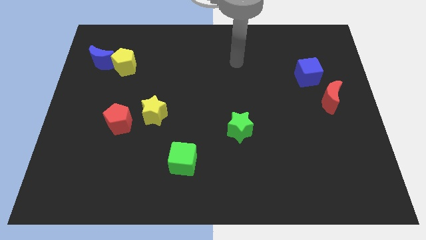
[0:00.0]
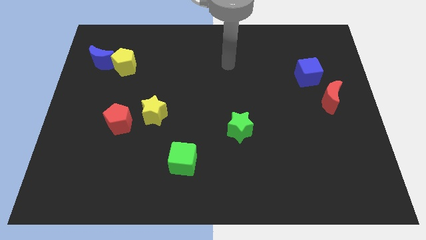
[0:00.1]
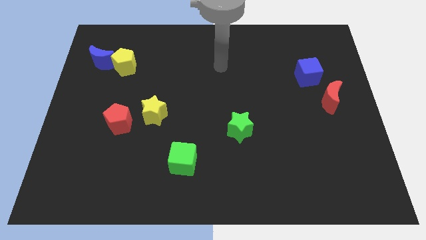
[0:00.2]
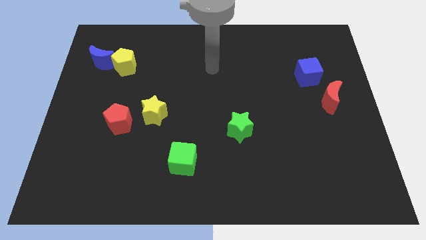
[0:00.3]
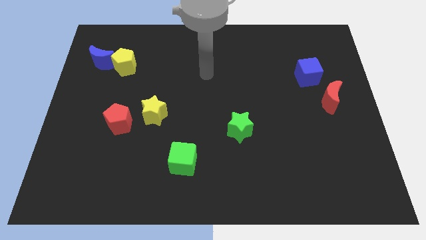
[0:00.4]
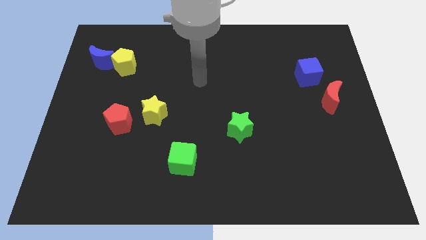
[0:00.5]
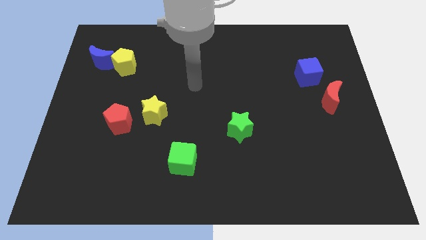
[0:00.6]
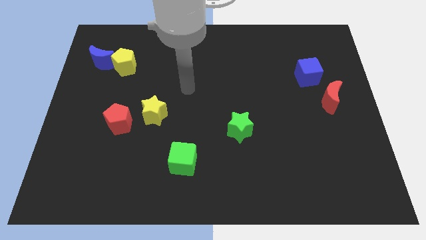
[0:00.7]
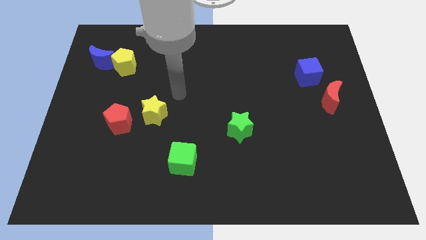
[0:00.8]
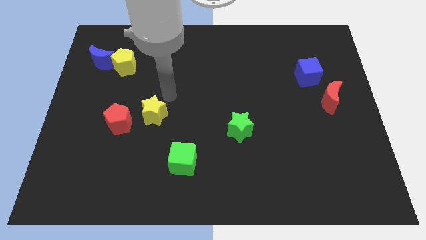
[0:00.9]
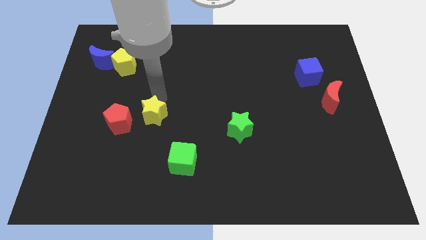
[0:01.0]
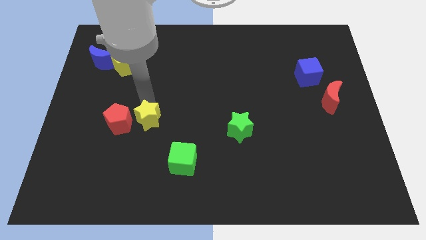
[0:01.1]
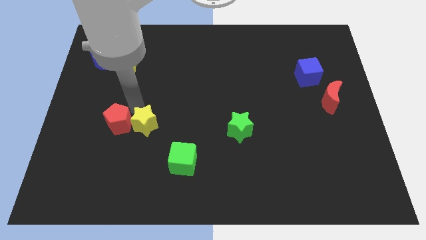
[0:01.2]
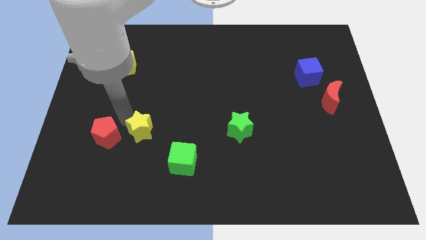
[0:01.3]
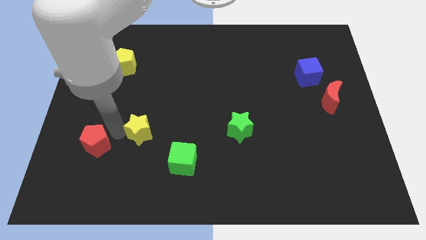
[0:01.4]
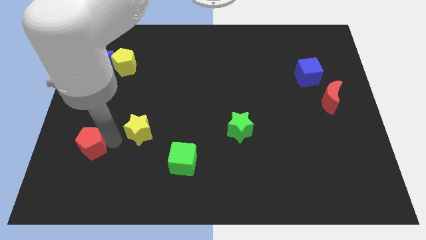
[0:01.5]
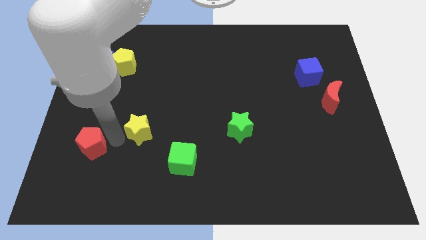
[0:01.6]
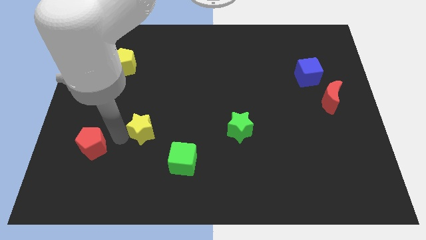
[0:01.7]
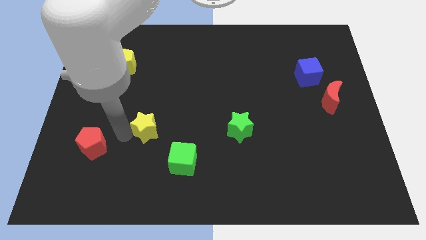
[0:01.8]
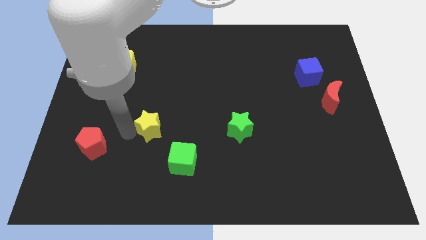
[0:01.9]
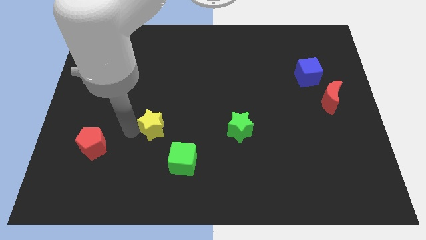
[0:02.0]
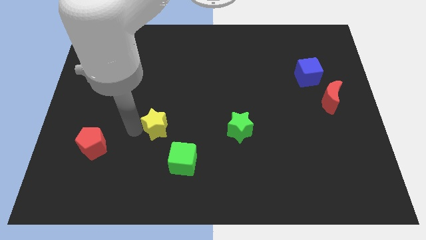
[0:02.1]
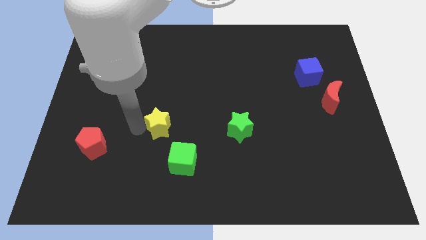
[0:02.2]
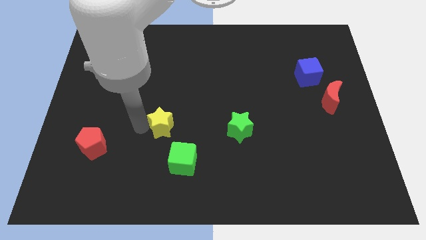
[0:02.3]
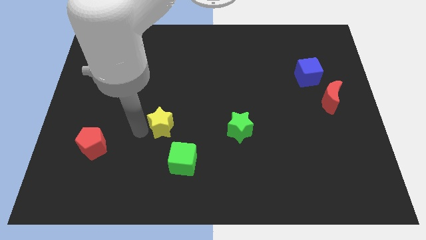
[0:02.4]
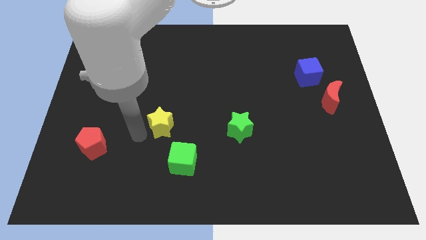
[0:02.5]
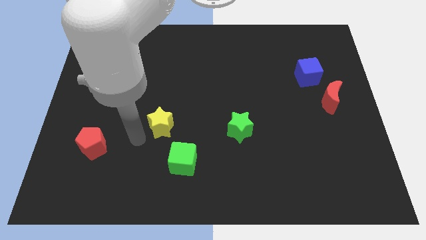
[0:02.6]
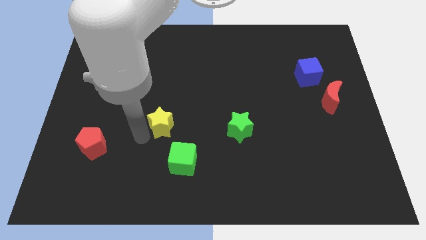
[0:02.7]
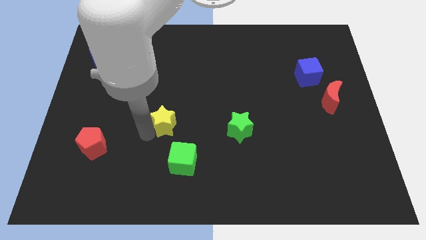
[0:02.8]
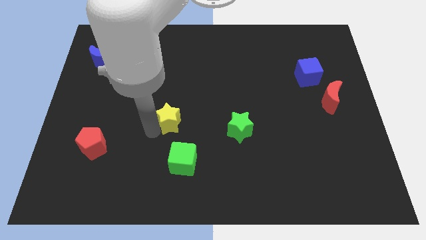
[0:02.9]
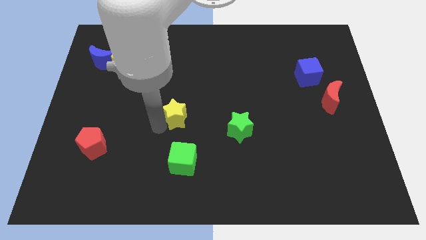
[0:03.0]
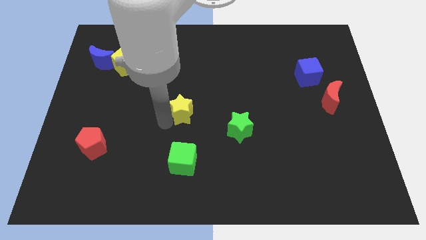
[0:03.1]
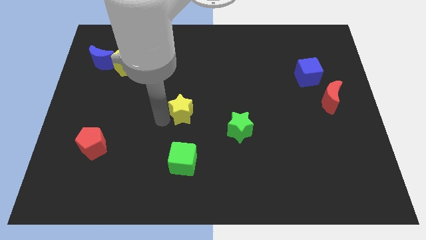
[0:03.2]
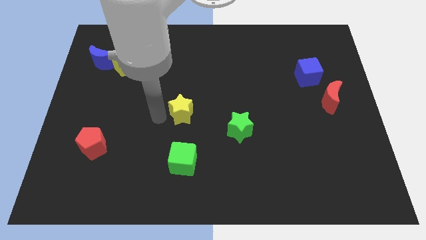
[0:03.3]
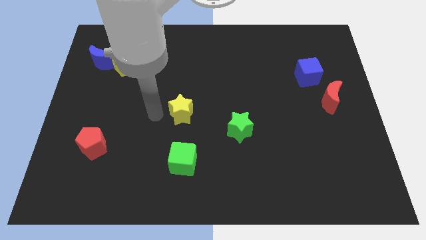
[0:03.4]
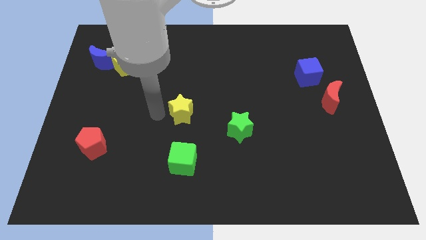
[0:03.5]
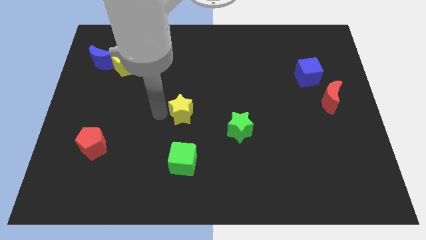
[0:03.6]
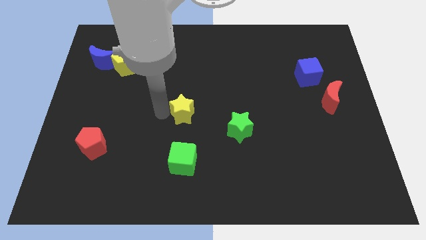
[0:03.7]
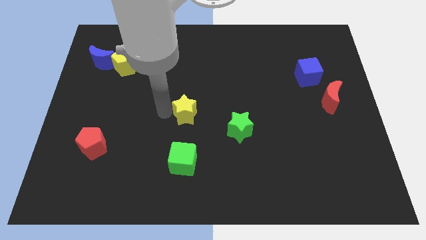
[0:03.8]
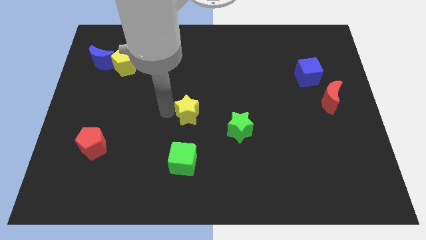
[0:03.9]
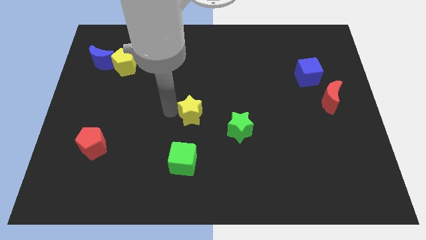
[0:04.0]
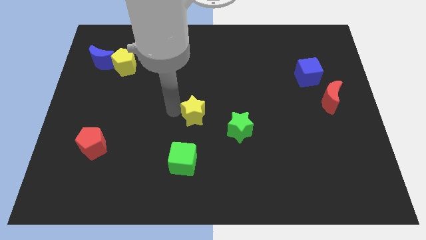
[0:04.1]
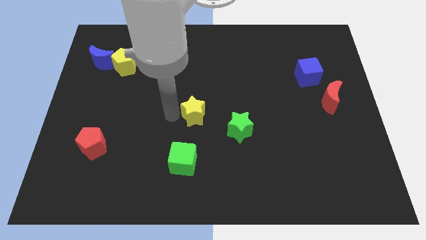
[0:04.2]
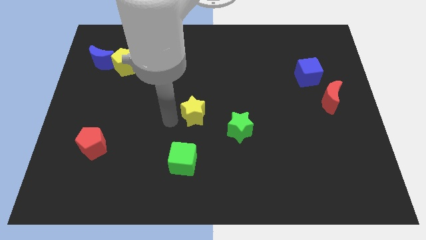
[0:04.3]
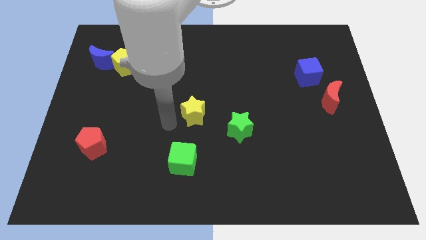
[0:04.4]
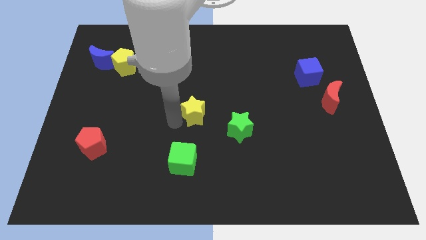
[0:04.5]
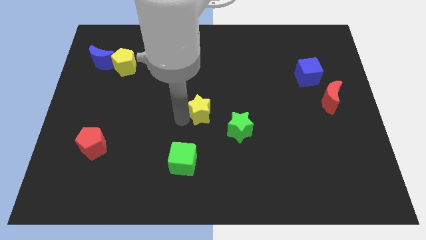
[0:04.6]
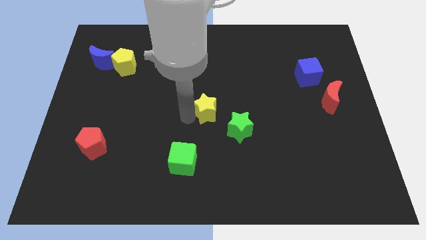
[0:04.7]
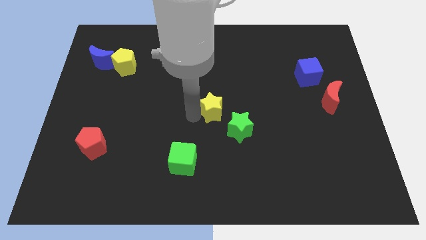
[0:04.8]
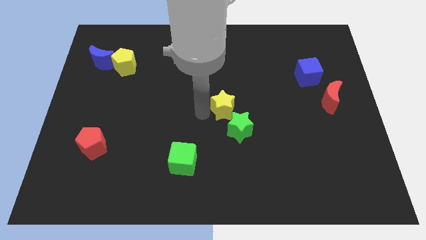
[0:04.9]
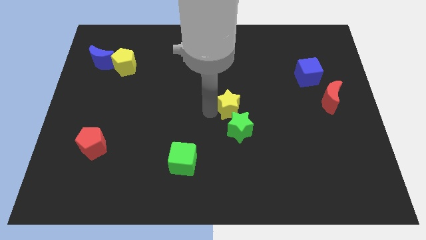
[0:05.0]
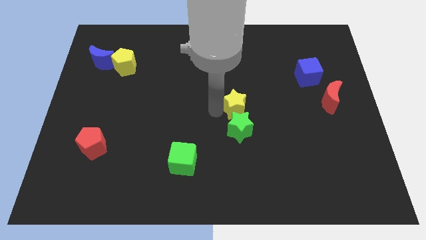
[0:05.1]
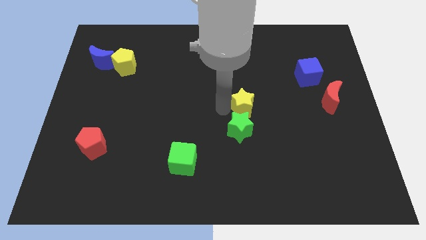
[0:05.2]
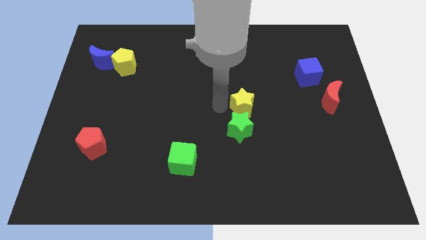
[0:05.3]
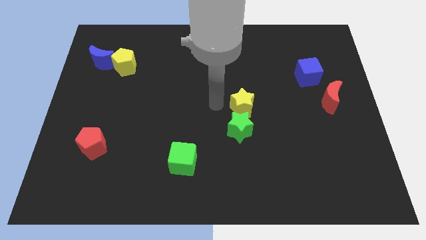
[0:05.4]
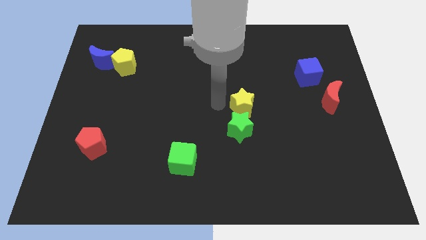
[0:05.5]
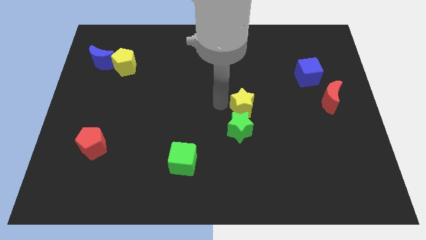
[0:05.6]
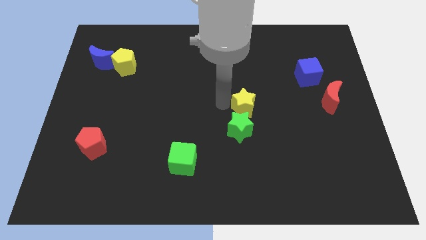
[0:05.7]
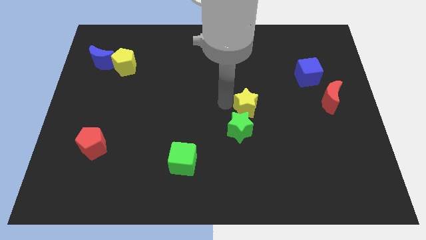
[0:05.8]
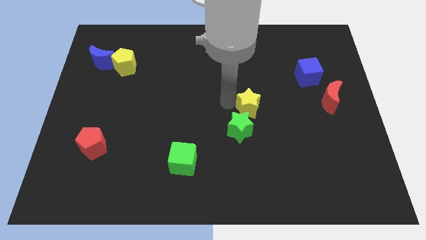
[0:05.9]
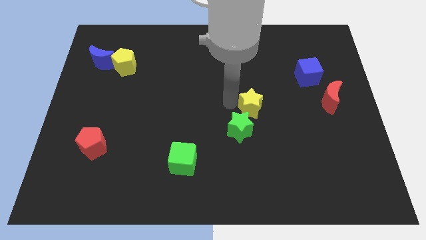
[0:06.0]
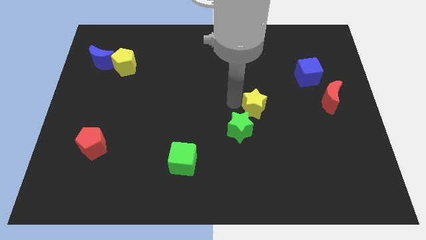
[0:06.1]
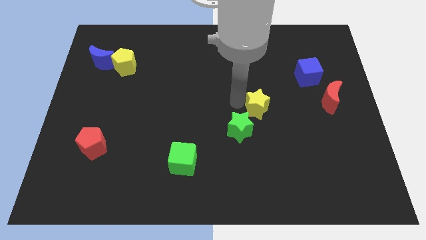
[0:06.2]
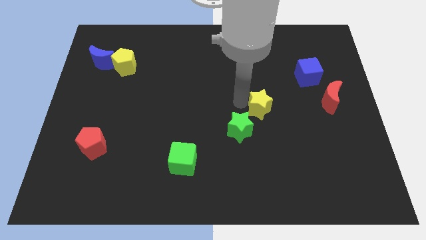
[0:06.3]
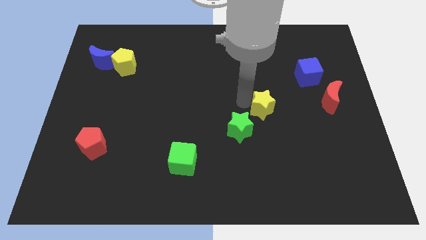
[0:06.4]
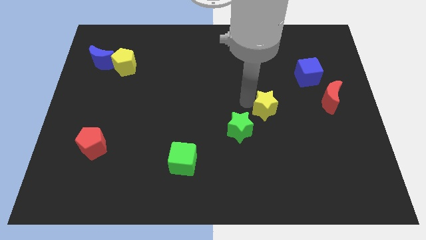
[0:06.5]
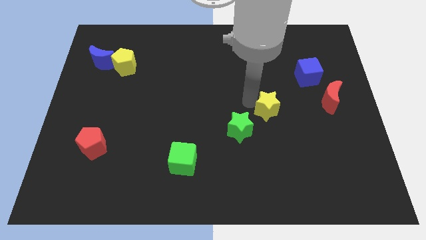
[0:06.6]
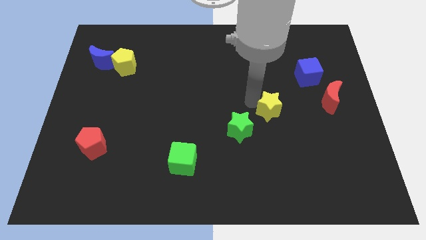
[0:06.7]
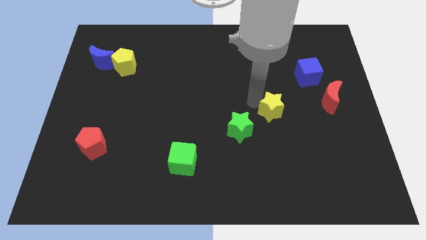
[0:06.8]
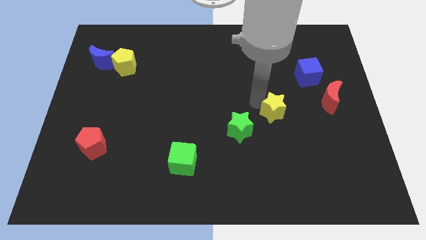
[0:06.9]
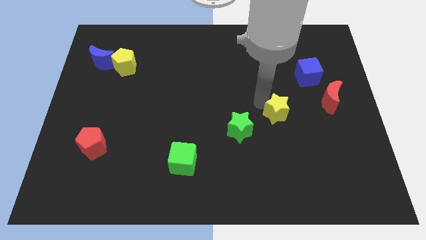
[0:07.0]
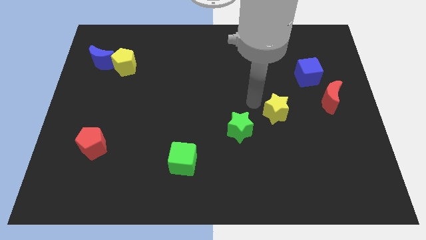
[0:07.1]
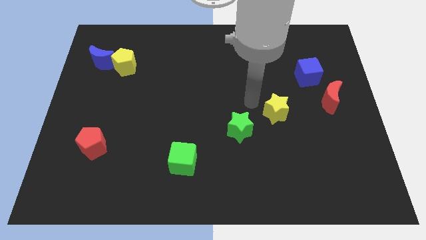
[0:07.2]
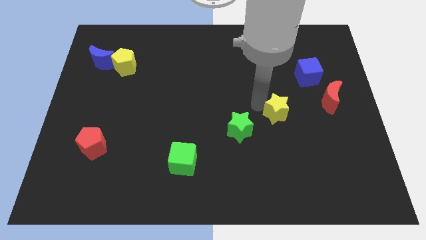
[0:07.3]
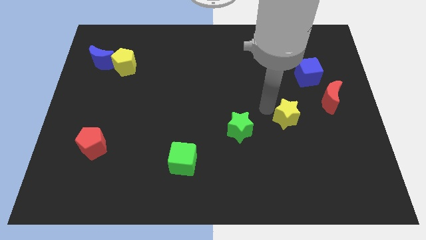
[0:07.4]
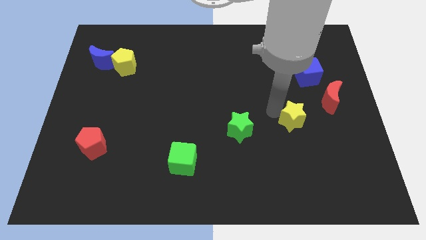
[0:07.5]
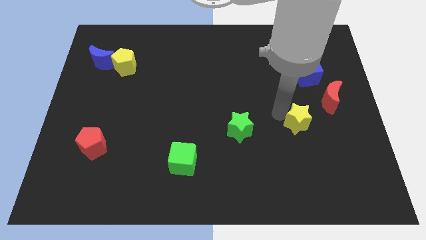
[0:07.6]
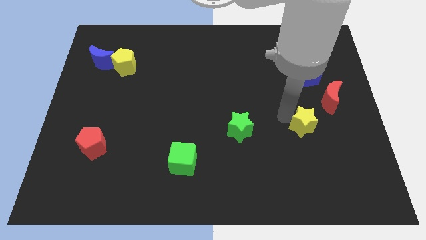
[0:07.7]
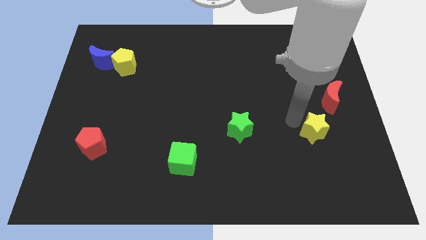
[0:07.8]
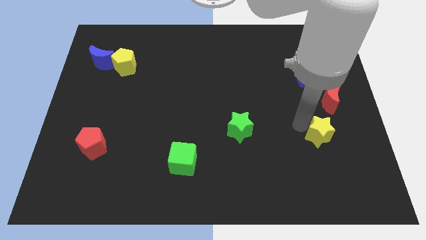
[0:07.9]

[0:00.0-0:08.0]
put the yellow star below the red moon
